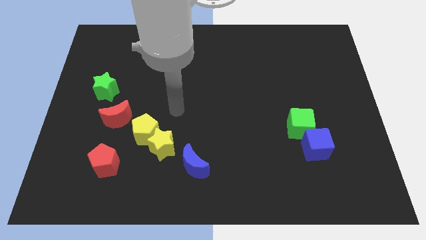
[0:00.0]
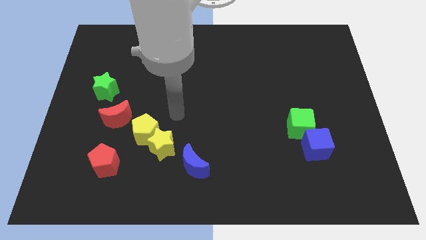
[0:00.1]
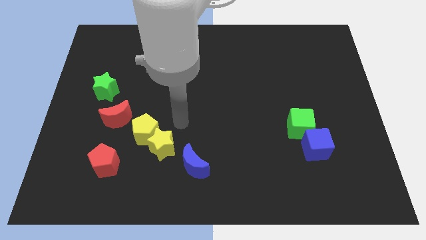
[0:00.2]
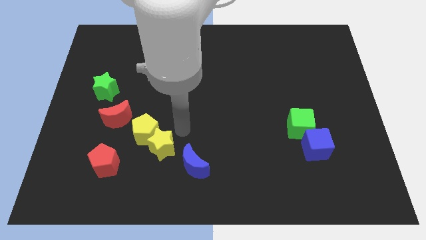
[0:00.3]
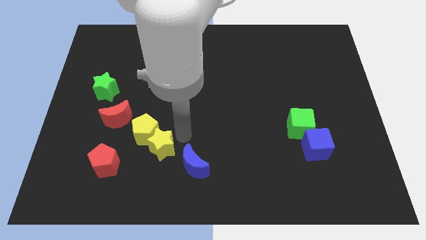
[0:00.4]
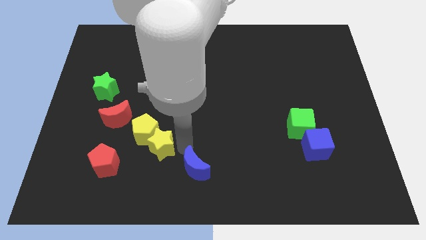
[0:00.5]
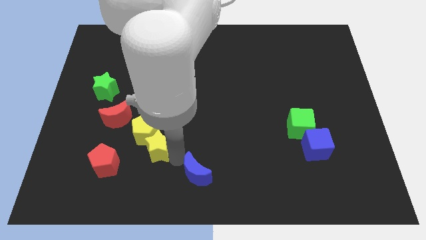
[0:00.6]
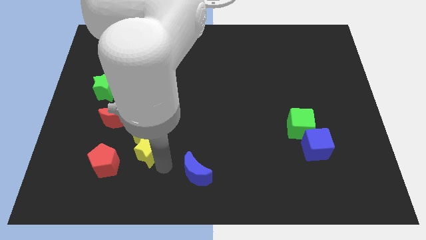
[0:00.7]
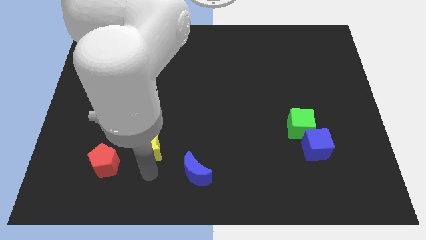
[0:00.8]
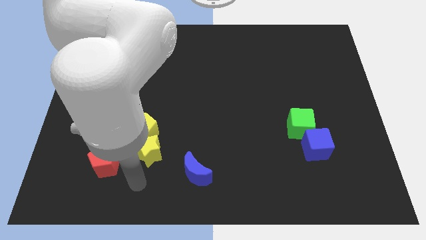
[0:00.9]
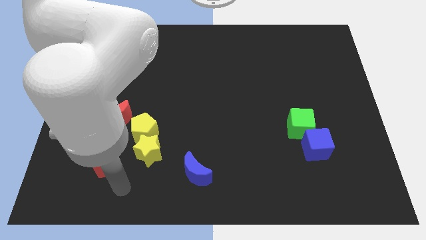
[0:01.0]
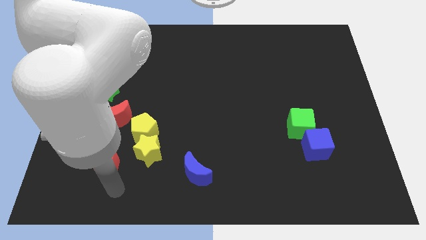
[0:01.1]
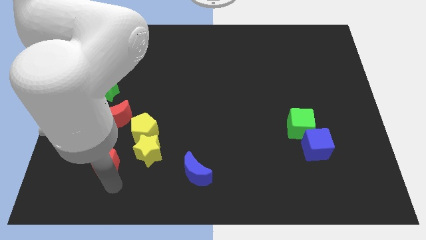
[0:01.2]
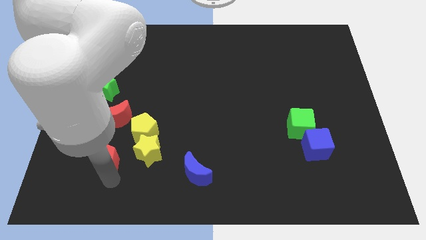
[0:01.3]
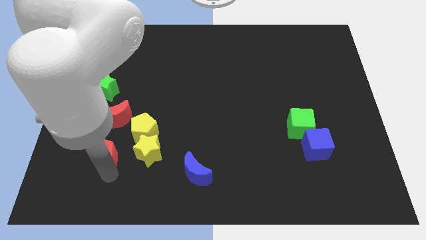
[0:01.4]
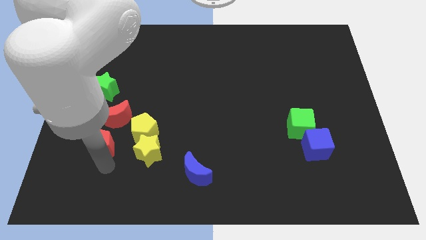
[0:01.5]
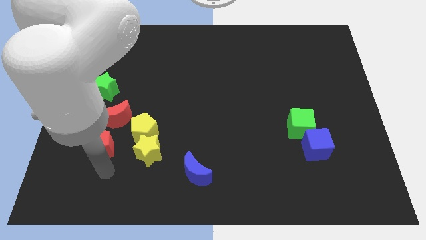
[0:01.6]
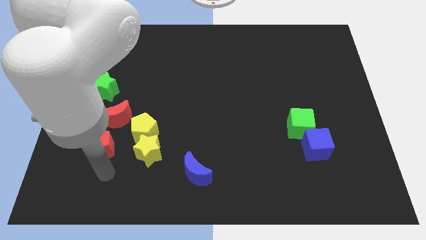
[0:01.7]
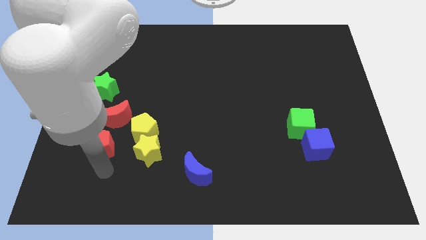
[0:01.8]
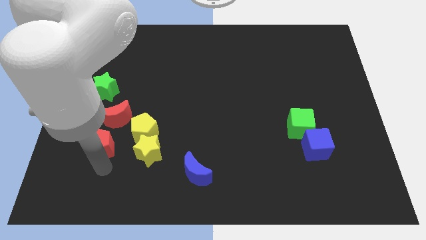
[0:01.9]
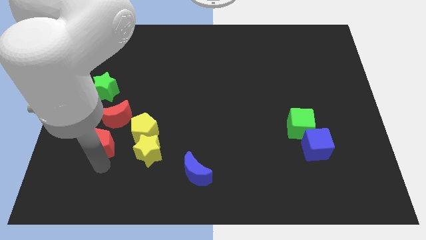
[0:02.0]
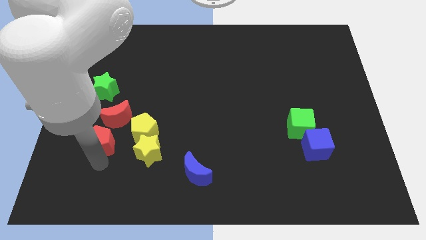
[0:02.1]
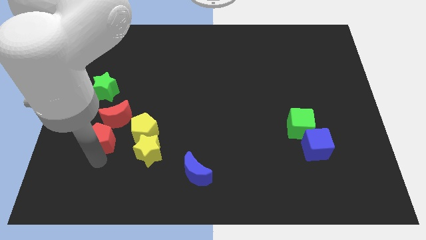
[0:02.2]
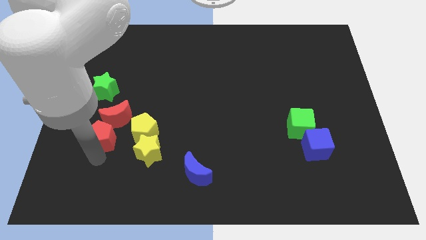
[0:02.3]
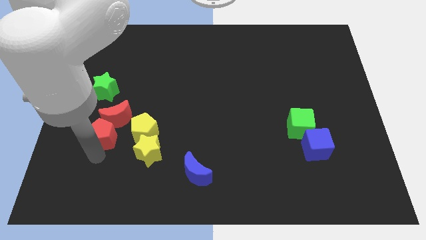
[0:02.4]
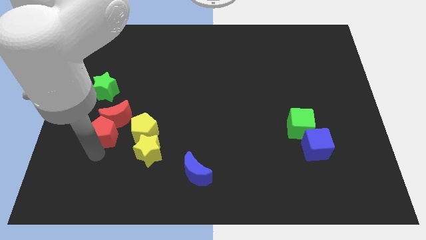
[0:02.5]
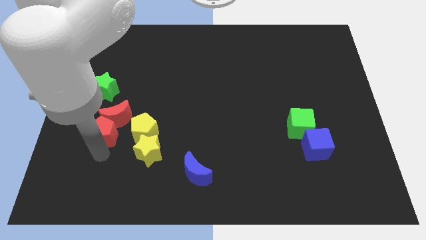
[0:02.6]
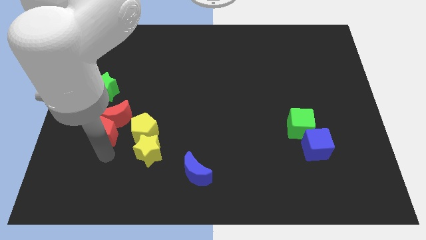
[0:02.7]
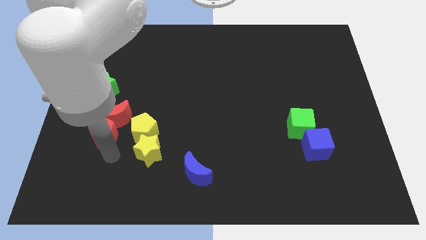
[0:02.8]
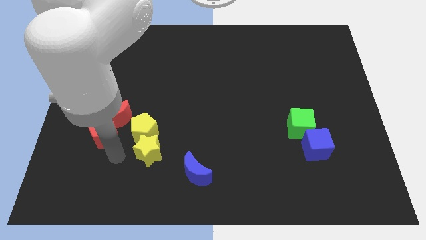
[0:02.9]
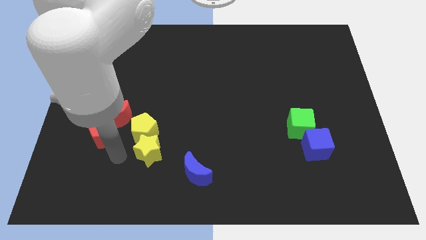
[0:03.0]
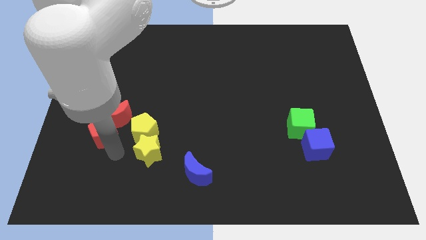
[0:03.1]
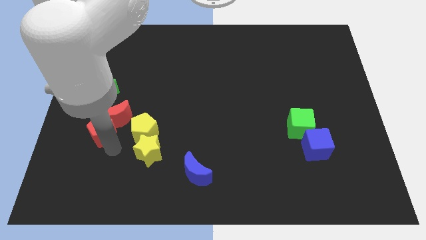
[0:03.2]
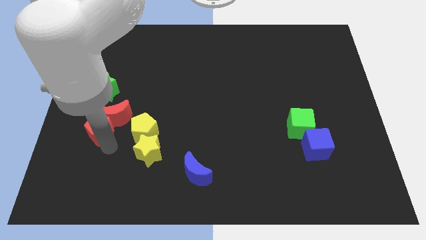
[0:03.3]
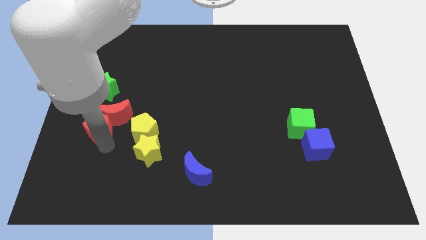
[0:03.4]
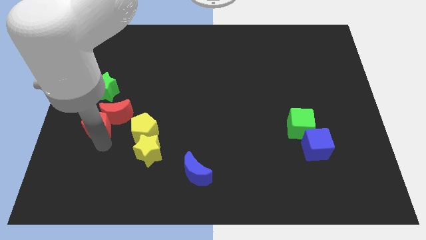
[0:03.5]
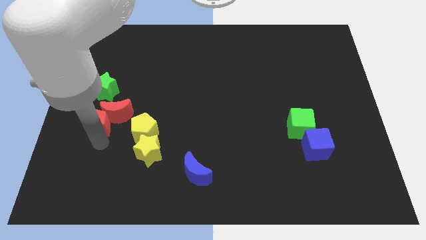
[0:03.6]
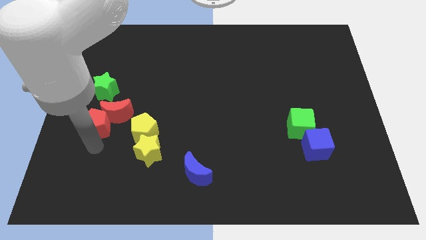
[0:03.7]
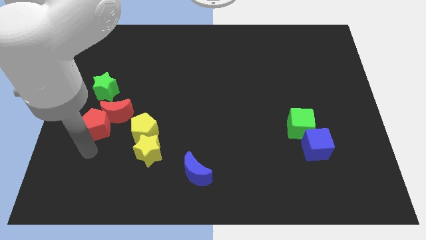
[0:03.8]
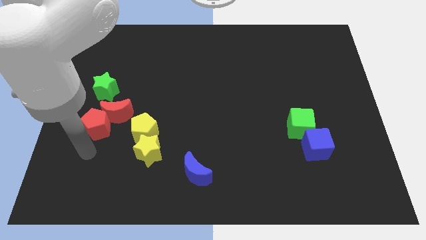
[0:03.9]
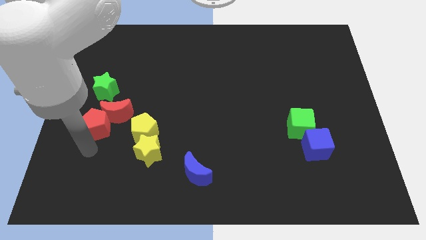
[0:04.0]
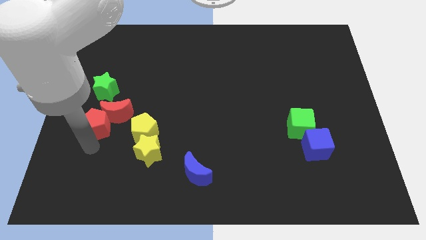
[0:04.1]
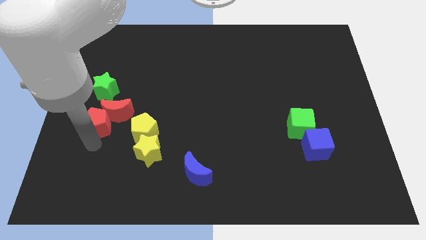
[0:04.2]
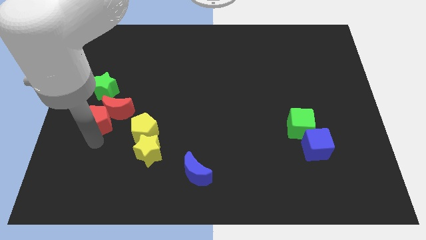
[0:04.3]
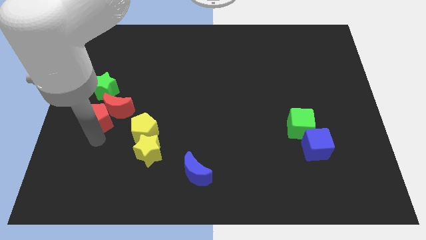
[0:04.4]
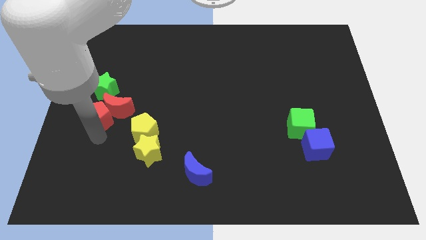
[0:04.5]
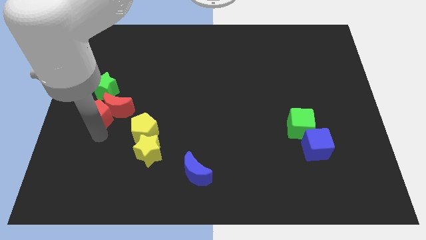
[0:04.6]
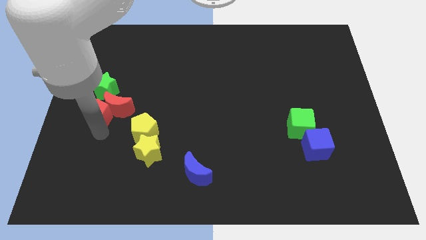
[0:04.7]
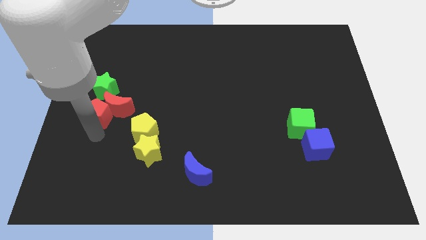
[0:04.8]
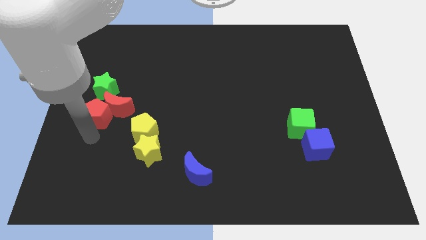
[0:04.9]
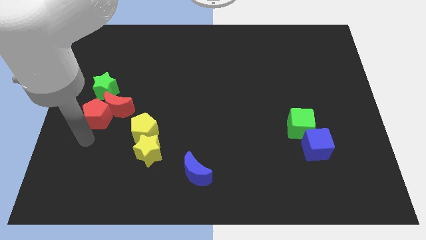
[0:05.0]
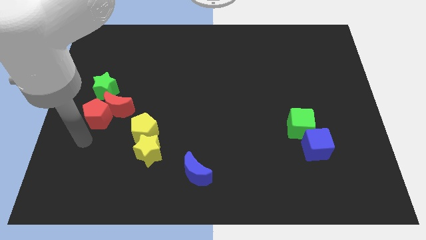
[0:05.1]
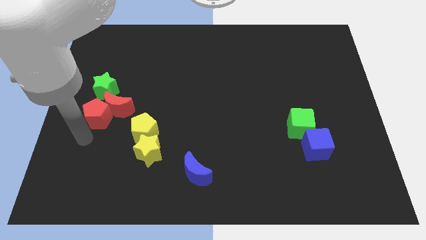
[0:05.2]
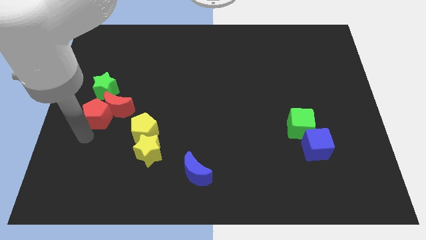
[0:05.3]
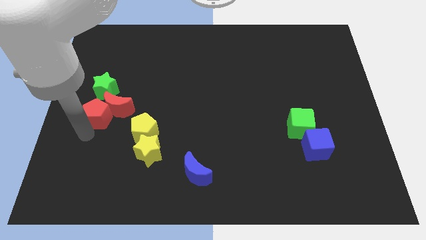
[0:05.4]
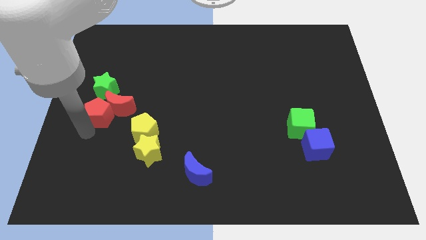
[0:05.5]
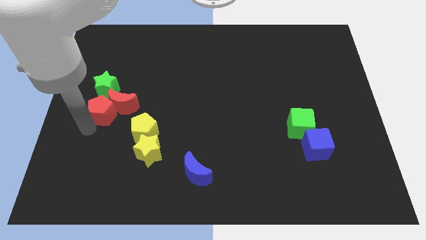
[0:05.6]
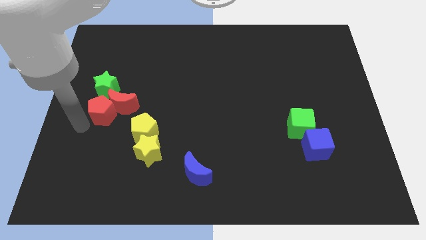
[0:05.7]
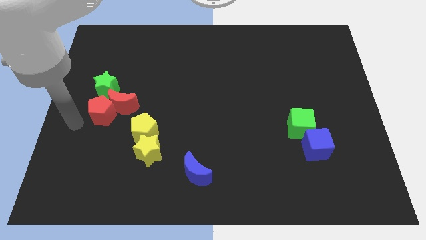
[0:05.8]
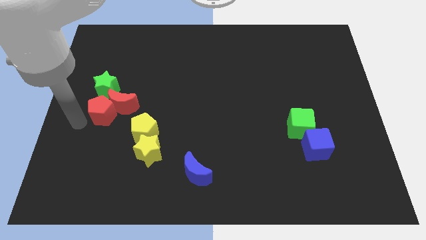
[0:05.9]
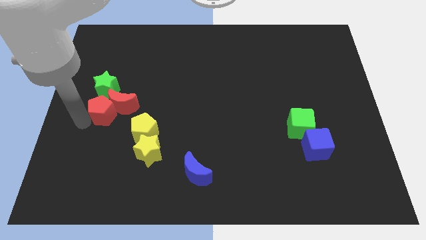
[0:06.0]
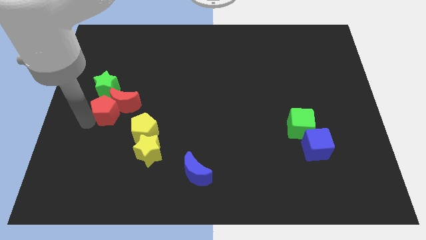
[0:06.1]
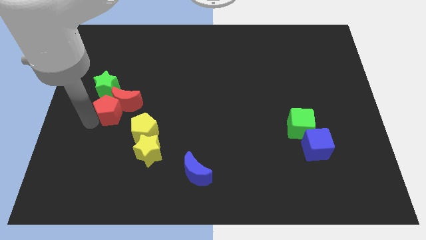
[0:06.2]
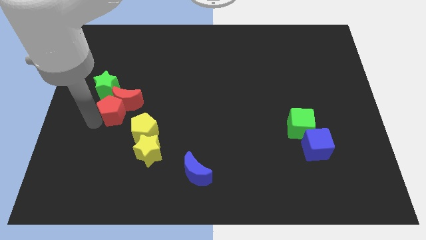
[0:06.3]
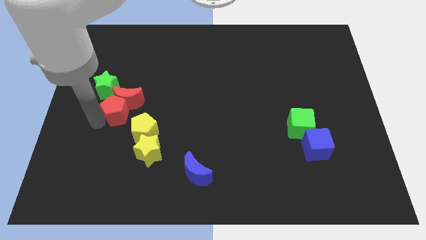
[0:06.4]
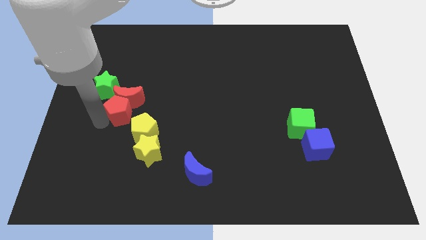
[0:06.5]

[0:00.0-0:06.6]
slide the red pentagon upwards and right somewhat

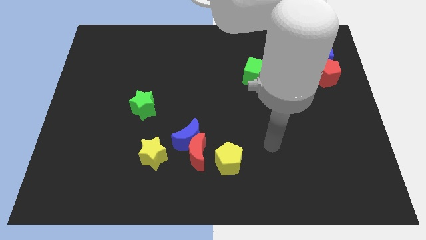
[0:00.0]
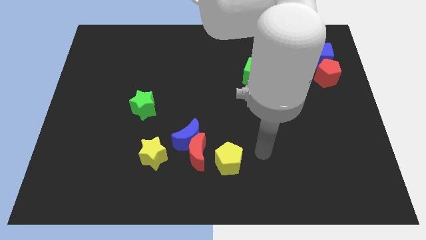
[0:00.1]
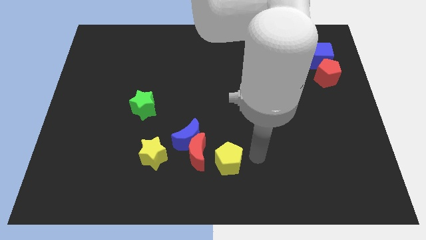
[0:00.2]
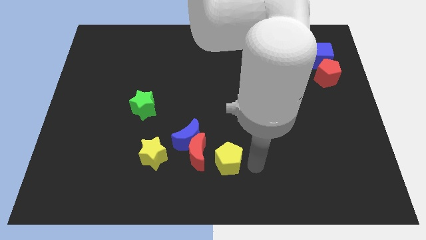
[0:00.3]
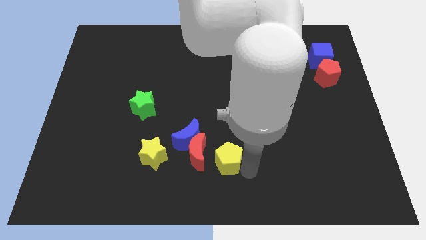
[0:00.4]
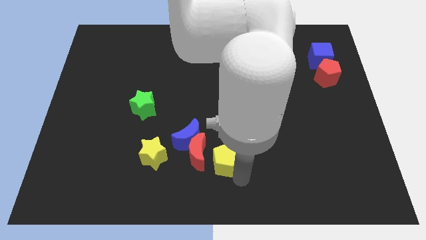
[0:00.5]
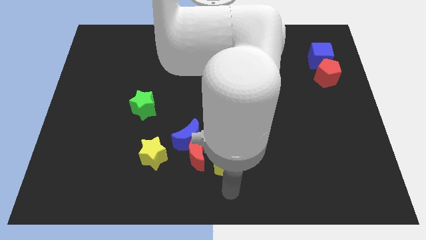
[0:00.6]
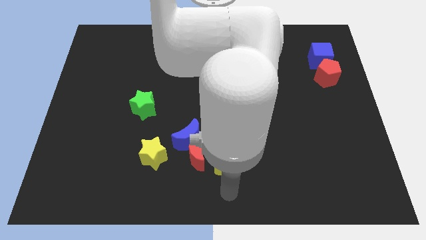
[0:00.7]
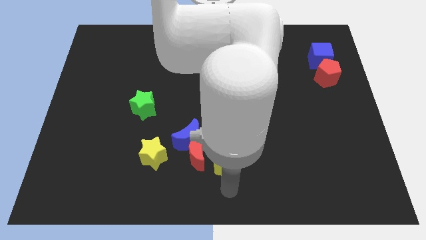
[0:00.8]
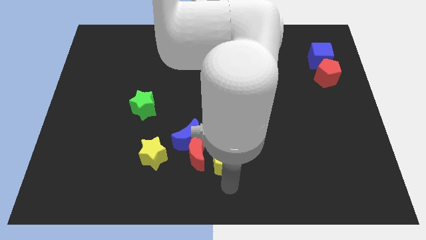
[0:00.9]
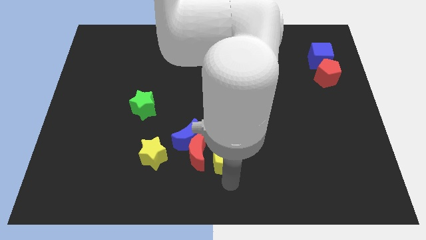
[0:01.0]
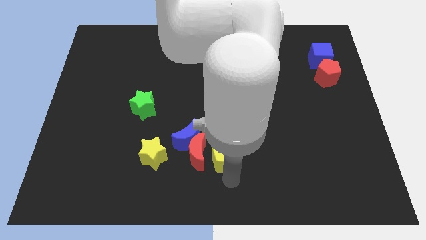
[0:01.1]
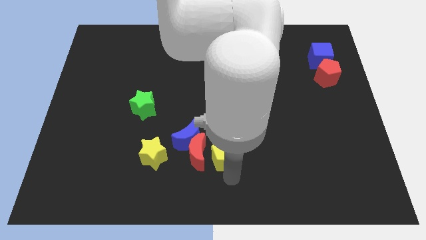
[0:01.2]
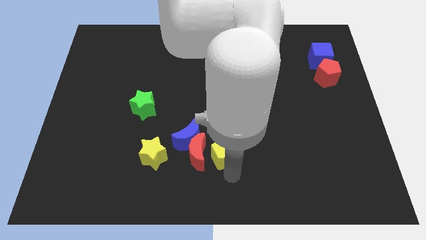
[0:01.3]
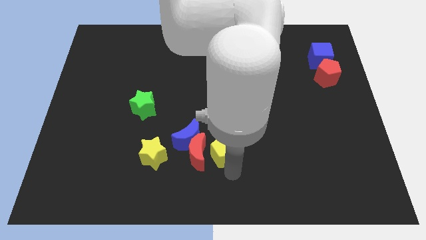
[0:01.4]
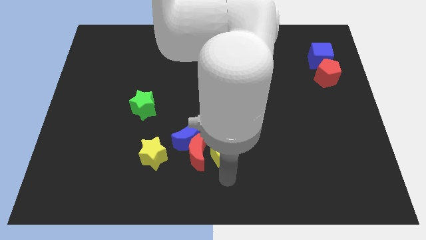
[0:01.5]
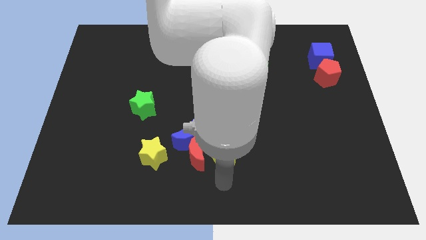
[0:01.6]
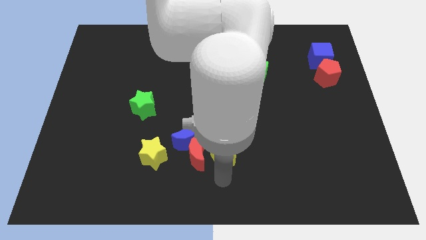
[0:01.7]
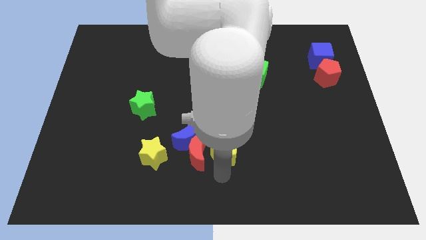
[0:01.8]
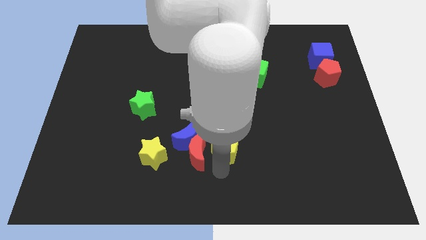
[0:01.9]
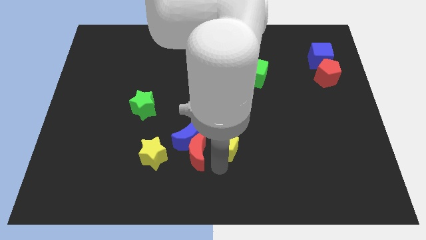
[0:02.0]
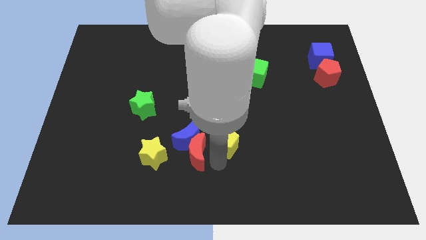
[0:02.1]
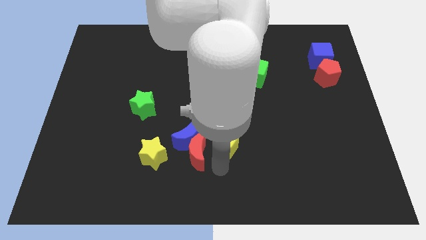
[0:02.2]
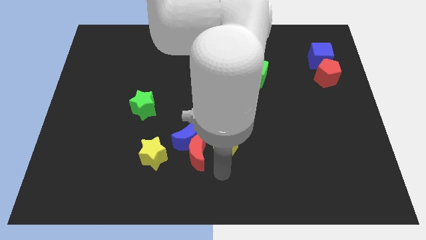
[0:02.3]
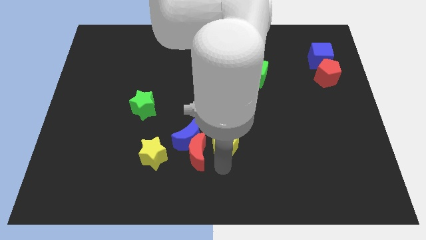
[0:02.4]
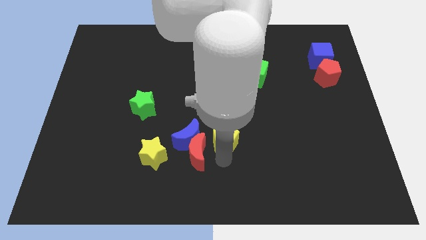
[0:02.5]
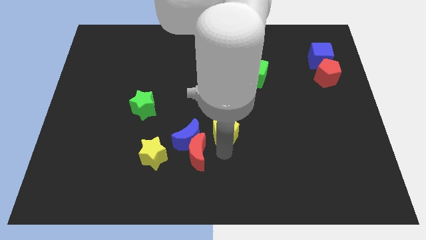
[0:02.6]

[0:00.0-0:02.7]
slightly slide the yellow pentagon up
